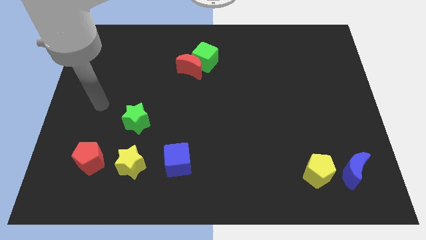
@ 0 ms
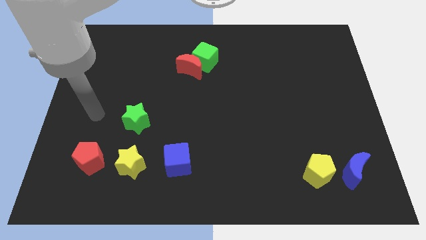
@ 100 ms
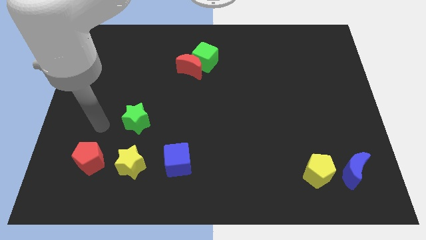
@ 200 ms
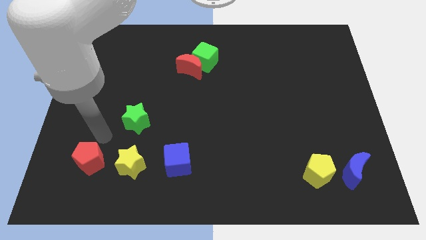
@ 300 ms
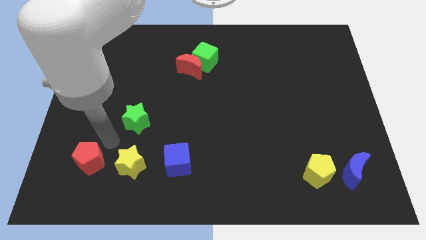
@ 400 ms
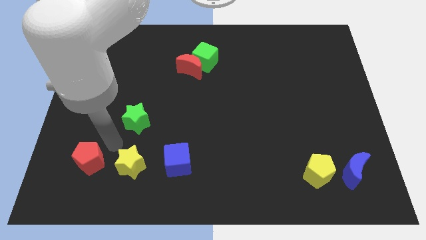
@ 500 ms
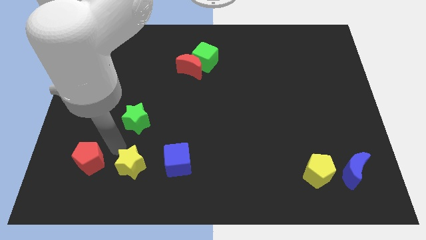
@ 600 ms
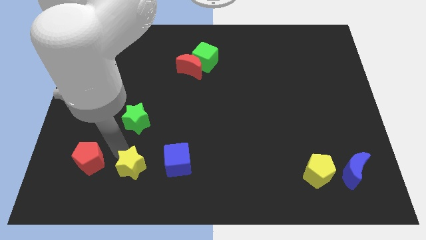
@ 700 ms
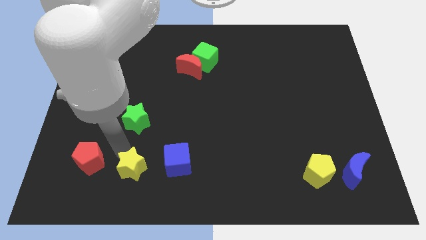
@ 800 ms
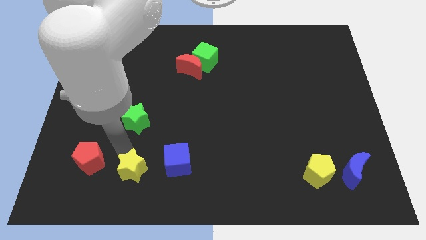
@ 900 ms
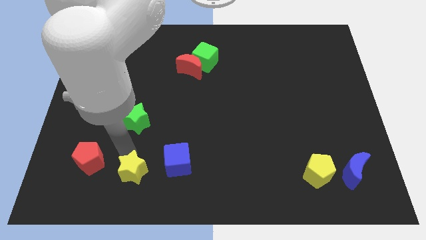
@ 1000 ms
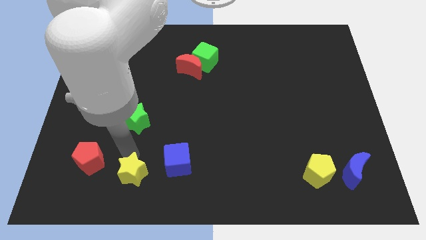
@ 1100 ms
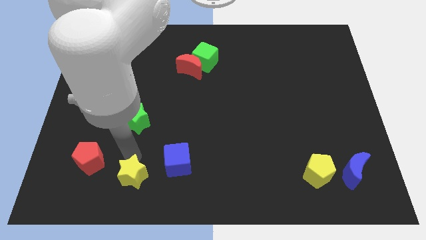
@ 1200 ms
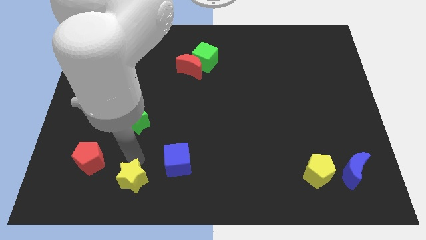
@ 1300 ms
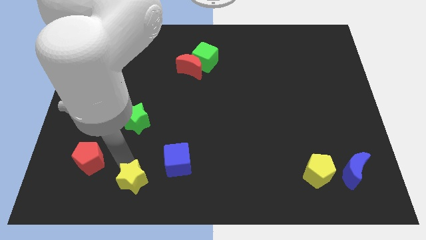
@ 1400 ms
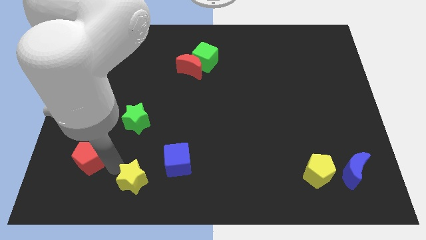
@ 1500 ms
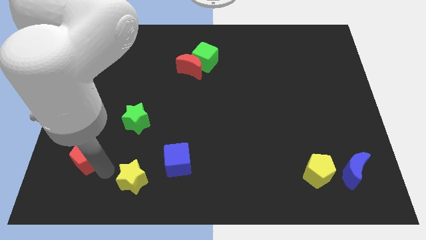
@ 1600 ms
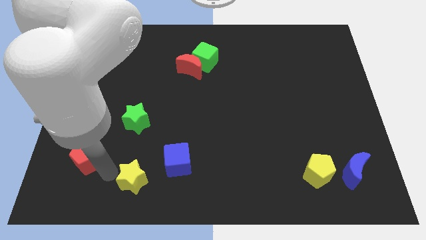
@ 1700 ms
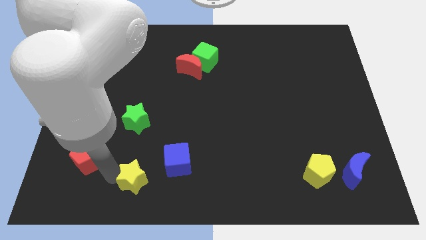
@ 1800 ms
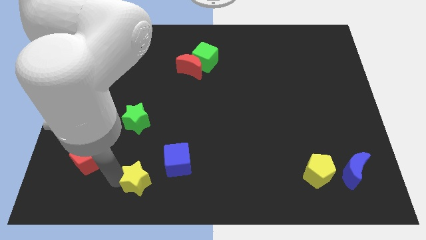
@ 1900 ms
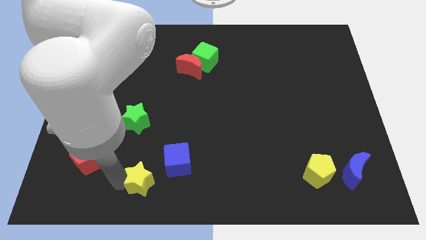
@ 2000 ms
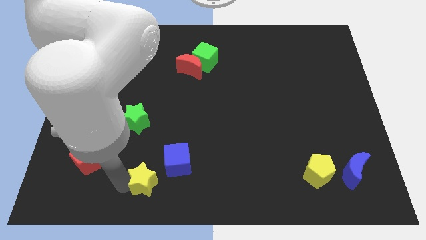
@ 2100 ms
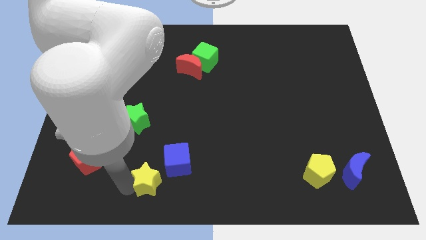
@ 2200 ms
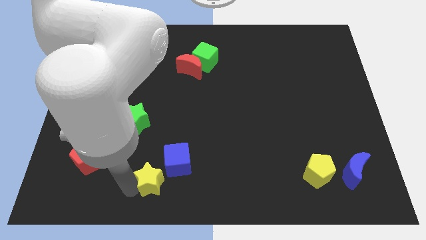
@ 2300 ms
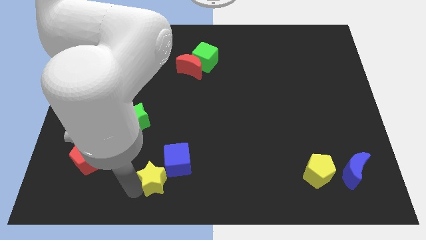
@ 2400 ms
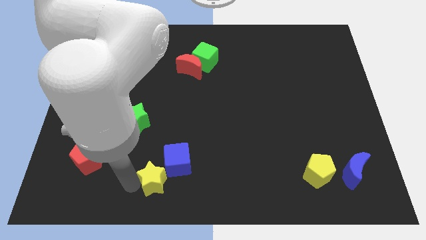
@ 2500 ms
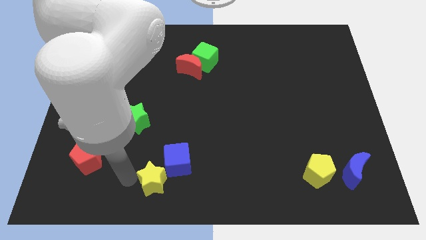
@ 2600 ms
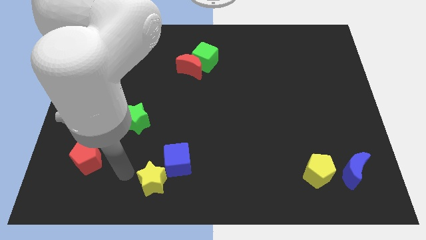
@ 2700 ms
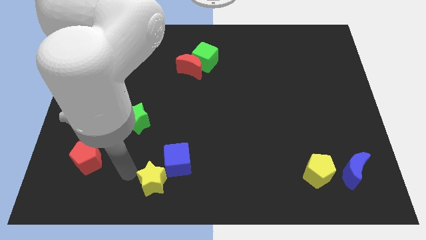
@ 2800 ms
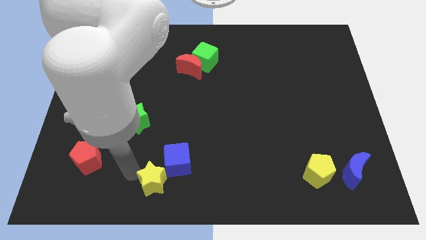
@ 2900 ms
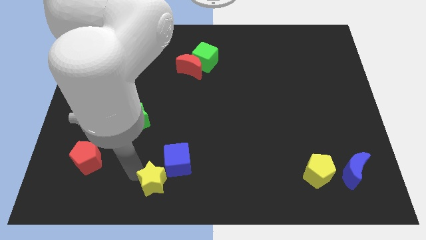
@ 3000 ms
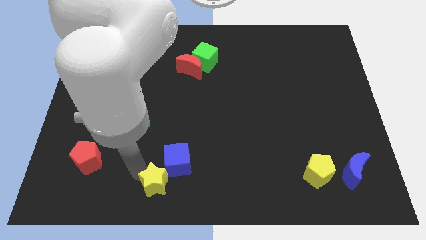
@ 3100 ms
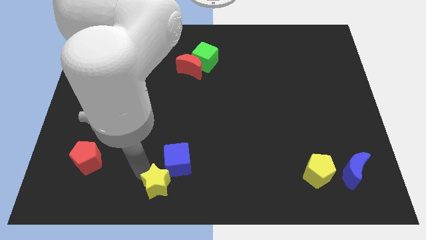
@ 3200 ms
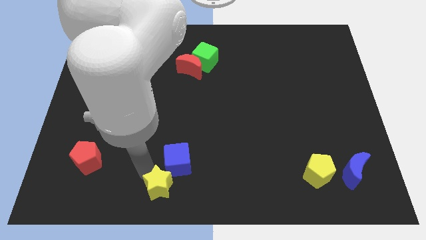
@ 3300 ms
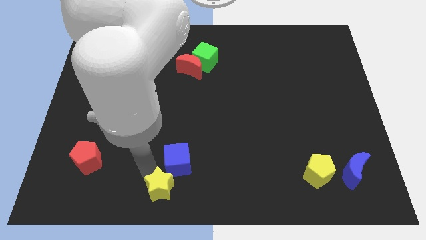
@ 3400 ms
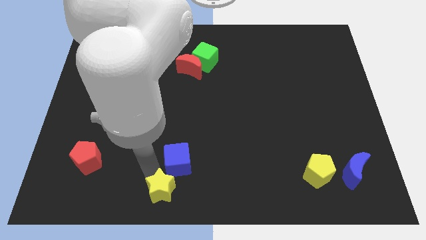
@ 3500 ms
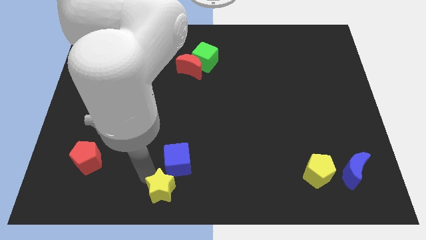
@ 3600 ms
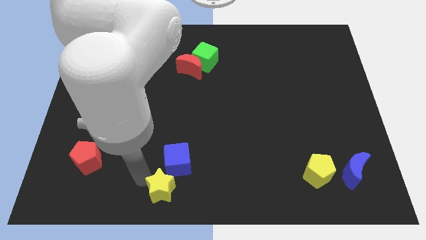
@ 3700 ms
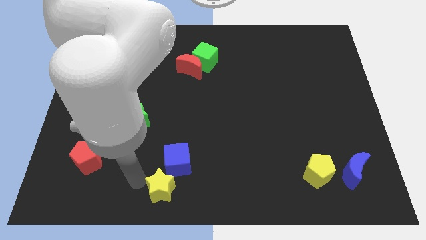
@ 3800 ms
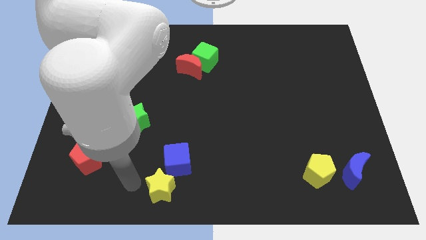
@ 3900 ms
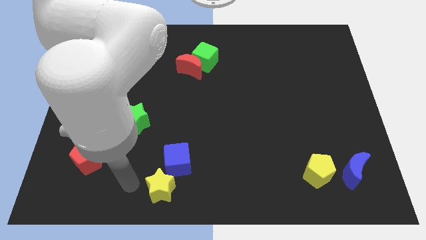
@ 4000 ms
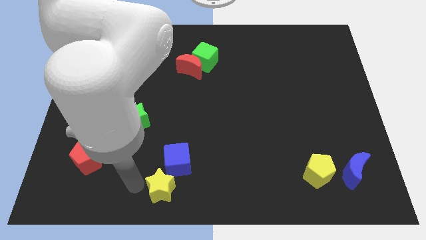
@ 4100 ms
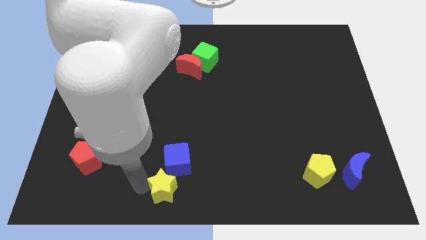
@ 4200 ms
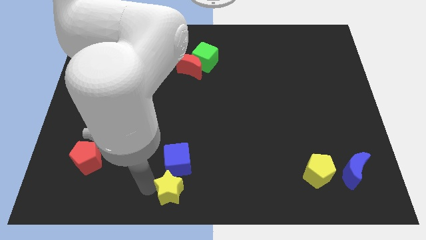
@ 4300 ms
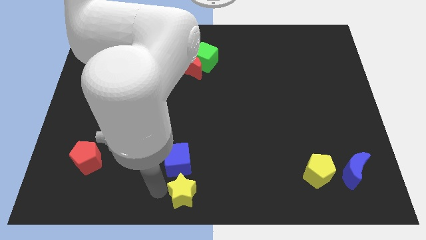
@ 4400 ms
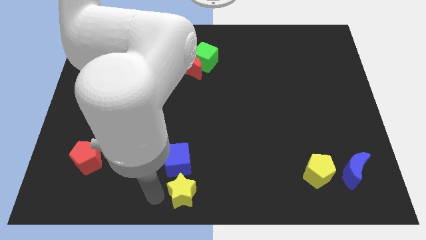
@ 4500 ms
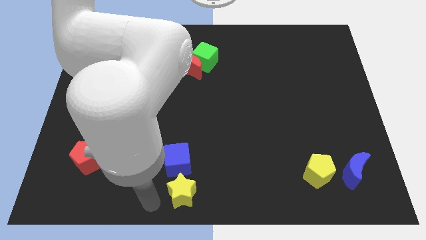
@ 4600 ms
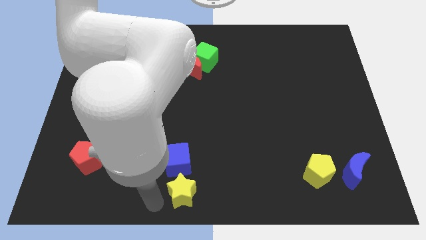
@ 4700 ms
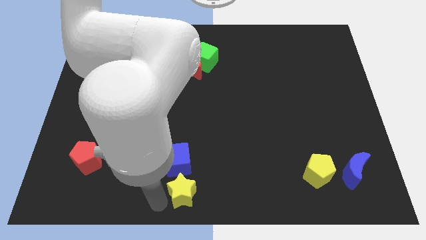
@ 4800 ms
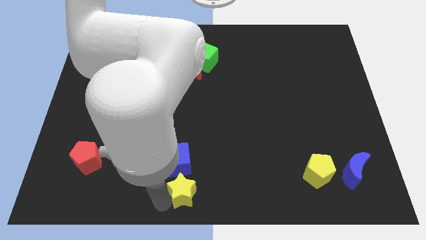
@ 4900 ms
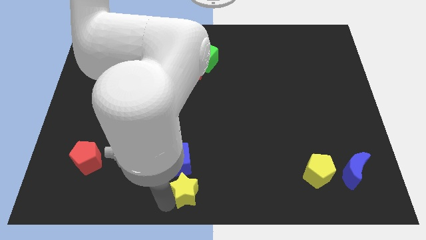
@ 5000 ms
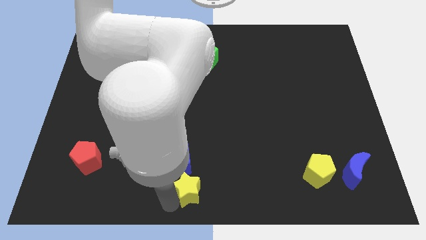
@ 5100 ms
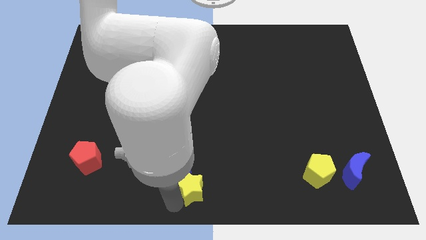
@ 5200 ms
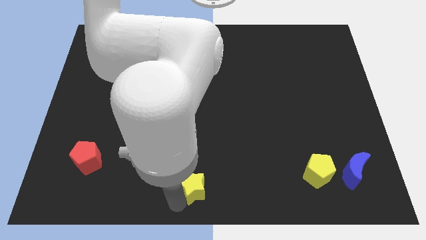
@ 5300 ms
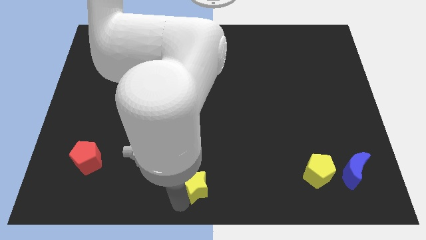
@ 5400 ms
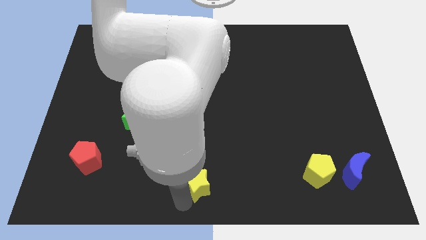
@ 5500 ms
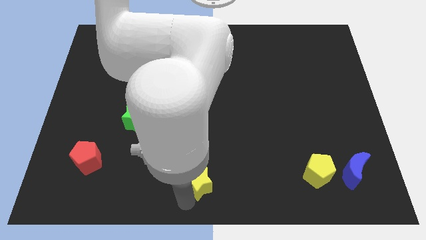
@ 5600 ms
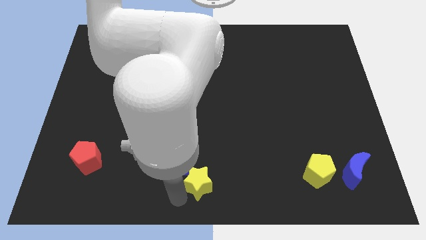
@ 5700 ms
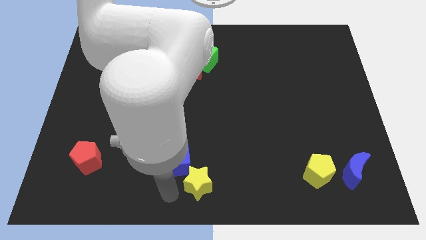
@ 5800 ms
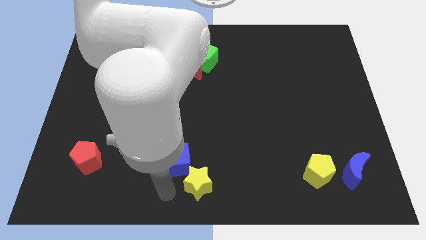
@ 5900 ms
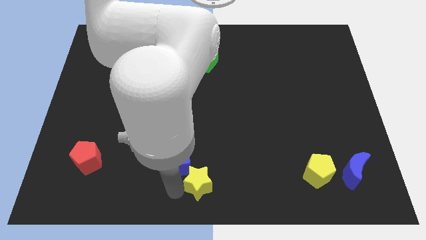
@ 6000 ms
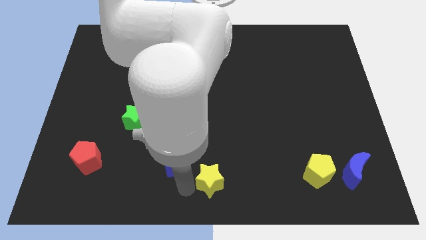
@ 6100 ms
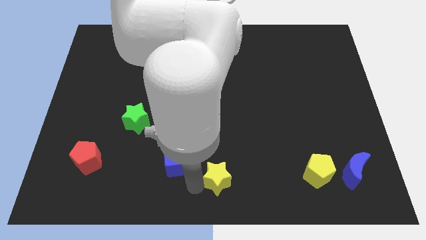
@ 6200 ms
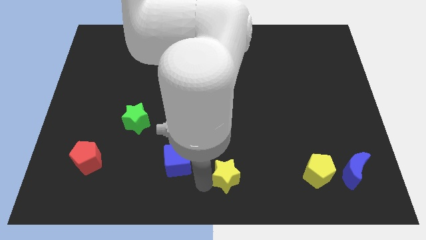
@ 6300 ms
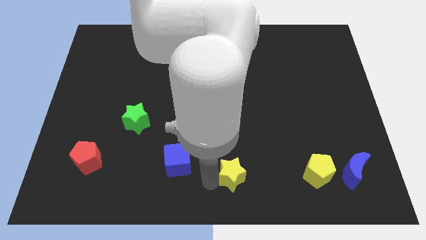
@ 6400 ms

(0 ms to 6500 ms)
push the yellow star right

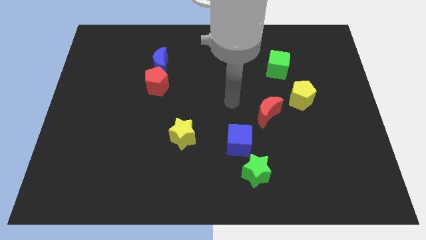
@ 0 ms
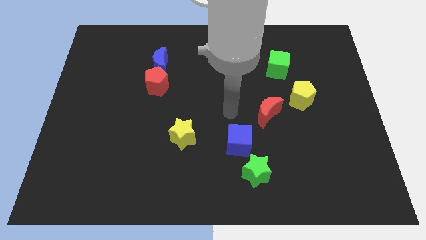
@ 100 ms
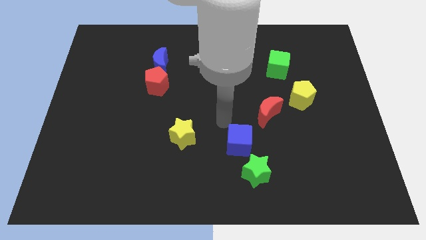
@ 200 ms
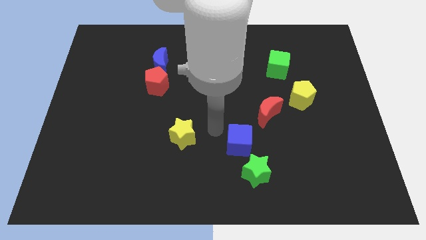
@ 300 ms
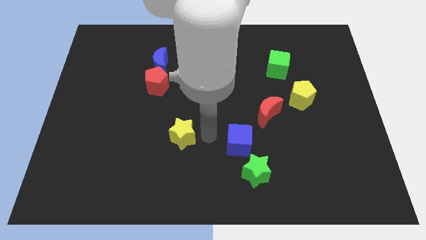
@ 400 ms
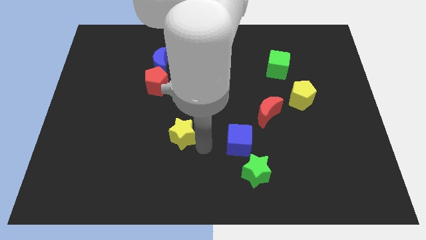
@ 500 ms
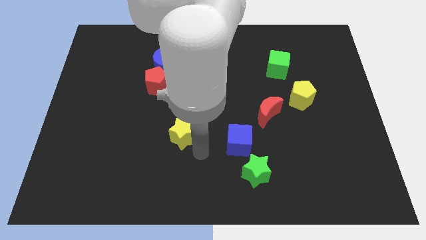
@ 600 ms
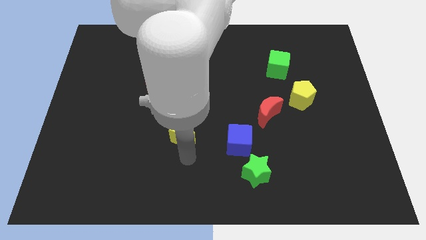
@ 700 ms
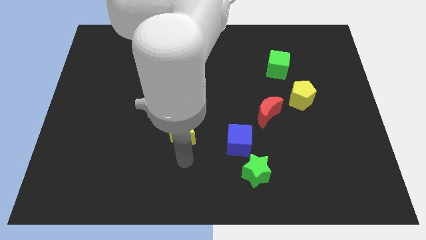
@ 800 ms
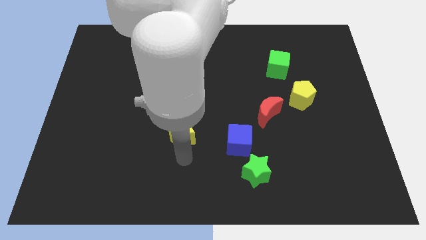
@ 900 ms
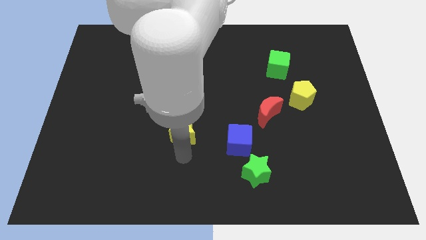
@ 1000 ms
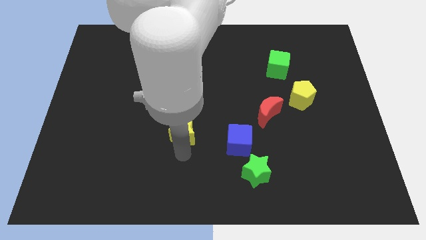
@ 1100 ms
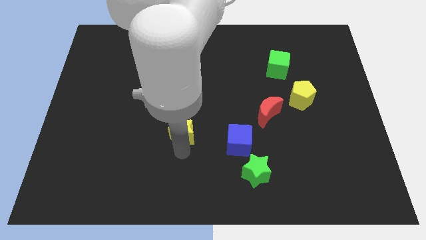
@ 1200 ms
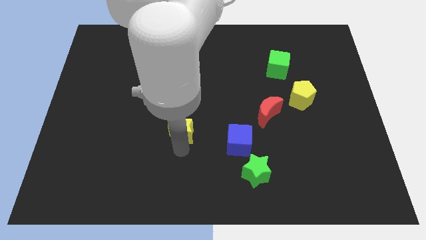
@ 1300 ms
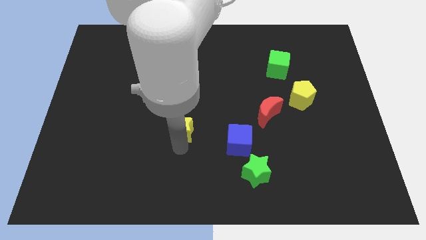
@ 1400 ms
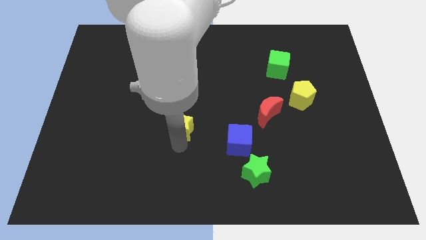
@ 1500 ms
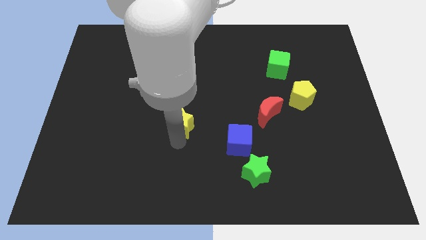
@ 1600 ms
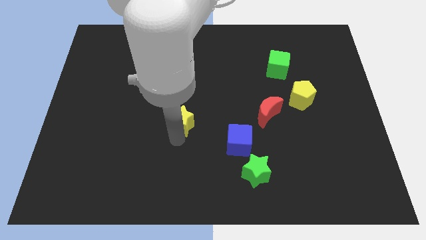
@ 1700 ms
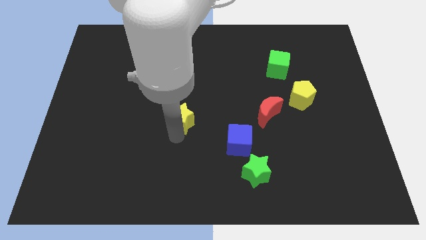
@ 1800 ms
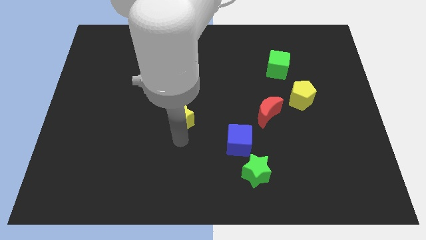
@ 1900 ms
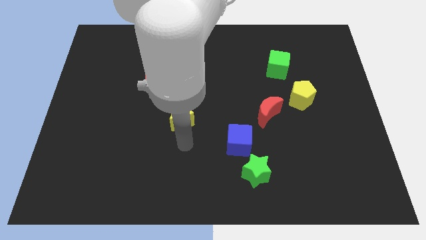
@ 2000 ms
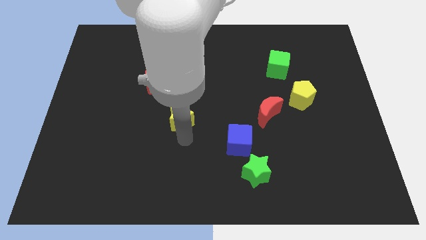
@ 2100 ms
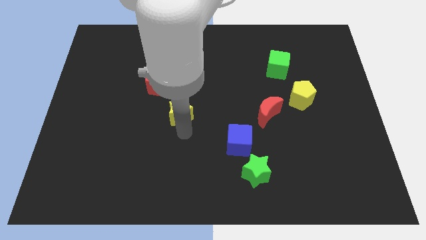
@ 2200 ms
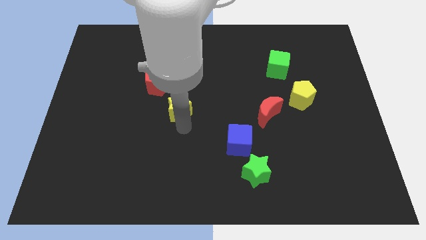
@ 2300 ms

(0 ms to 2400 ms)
move the yellow star slightly up
